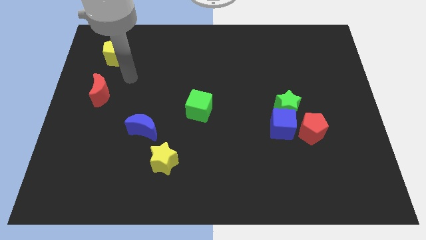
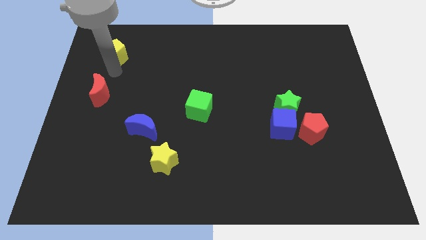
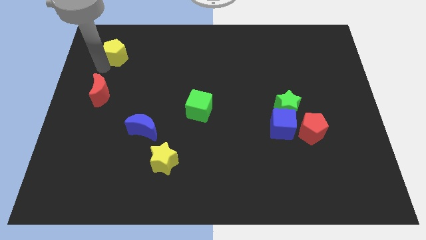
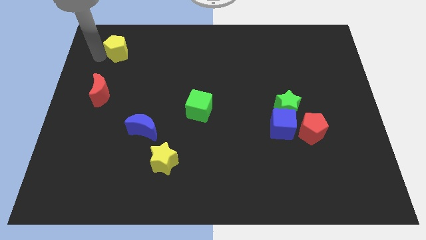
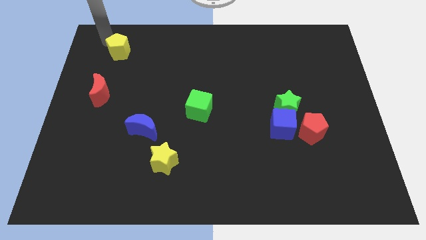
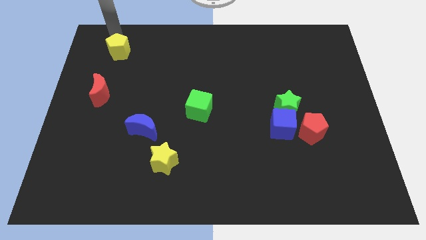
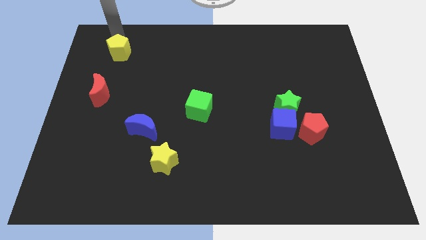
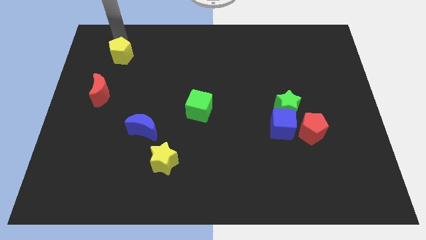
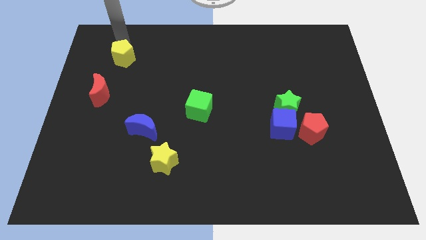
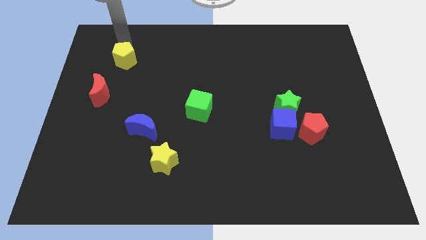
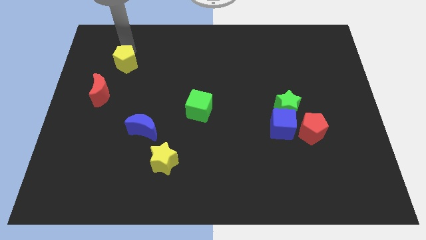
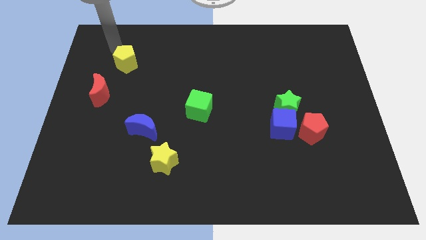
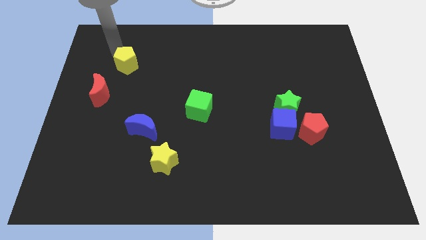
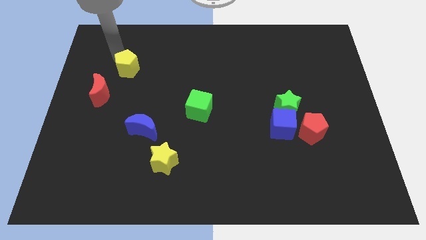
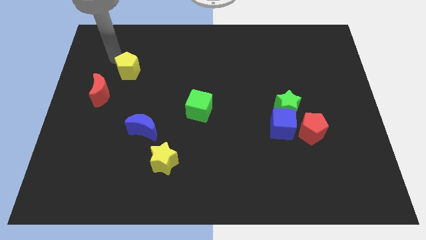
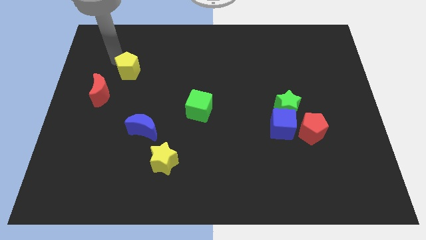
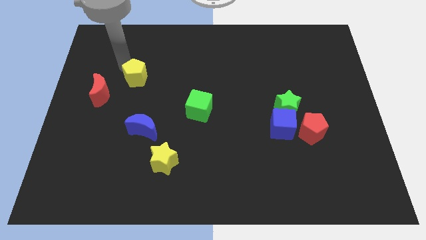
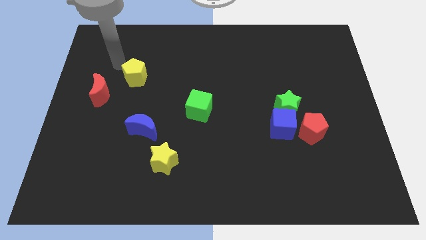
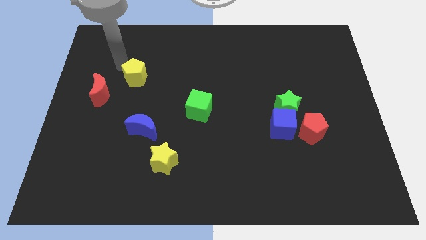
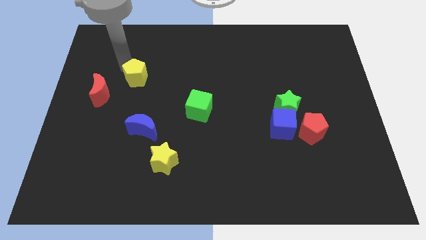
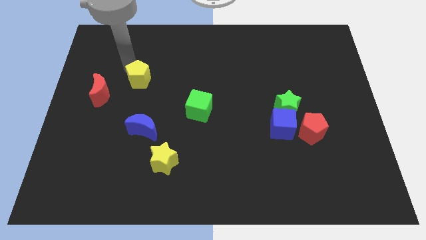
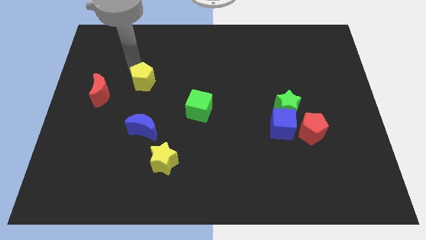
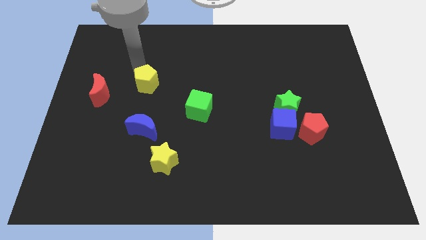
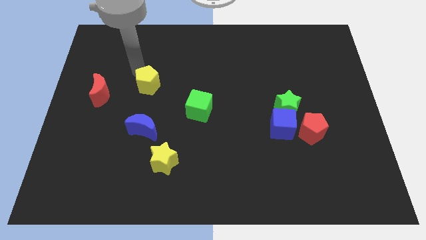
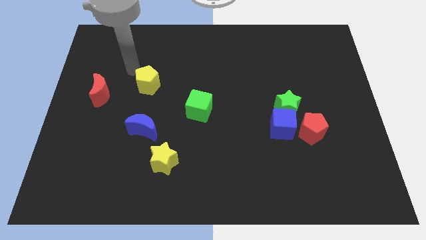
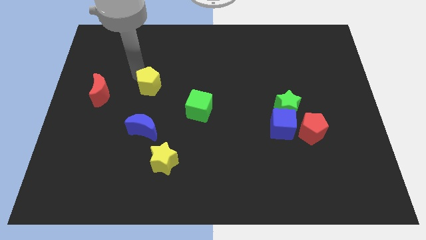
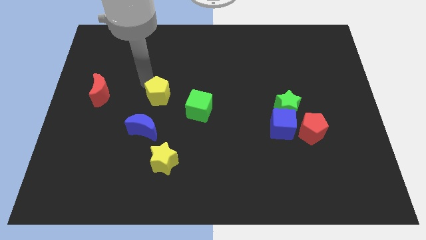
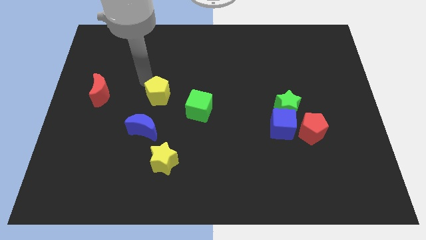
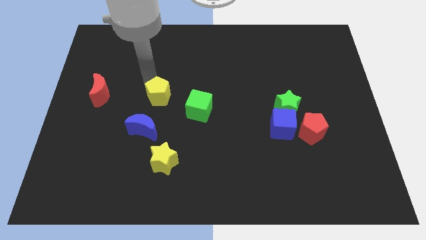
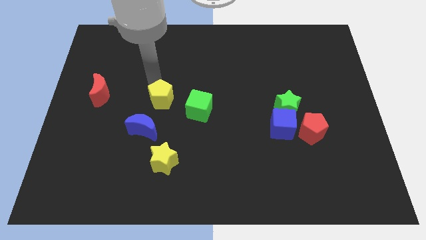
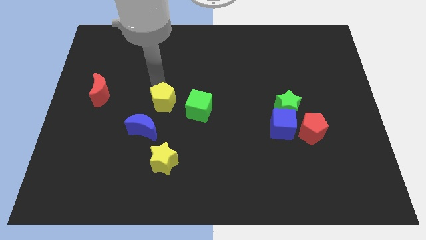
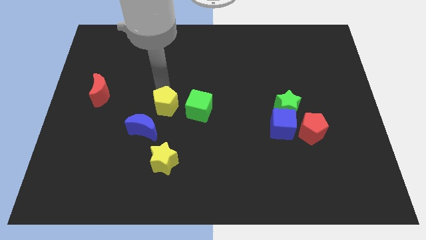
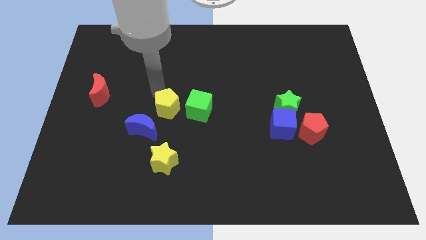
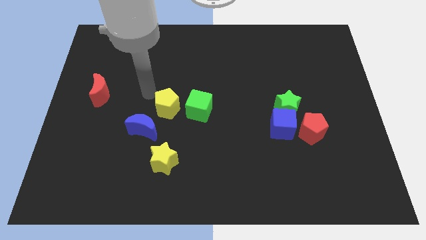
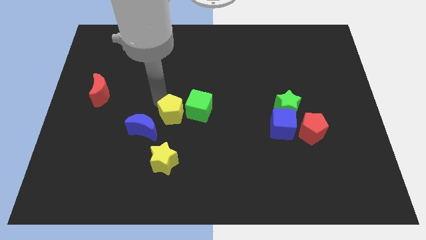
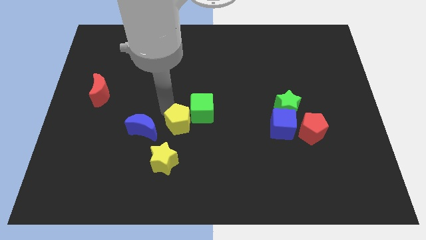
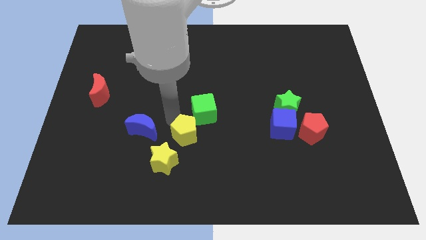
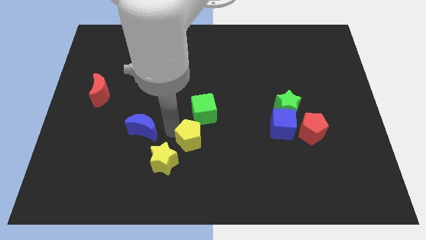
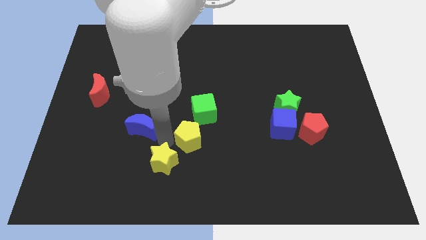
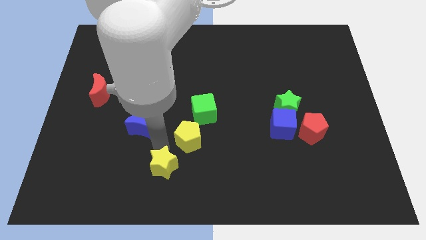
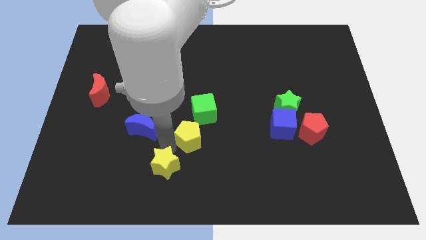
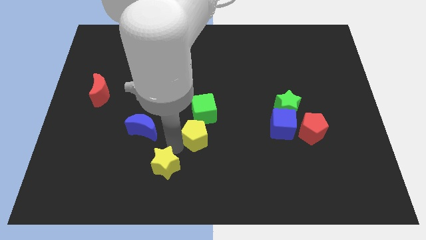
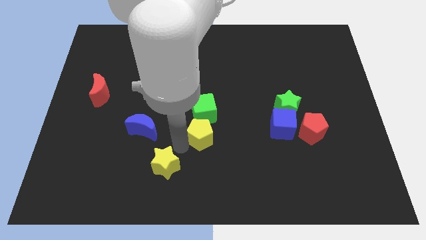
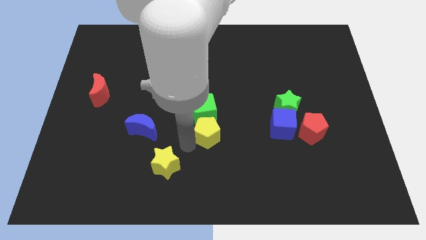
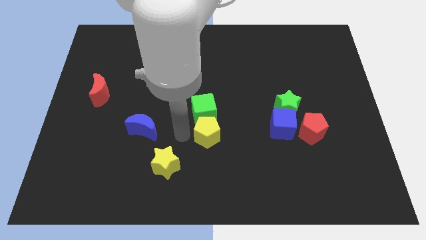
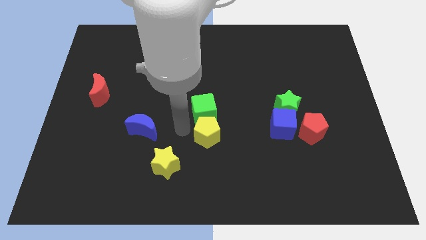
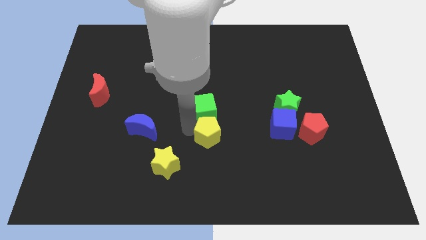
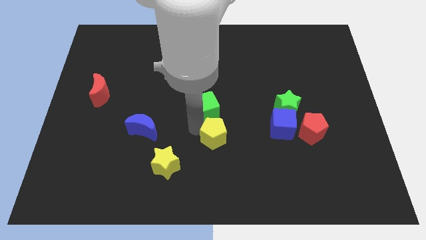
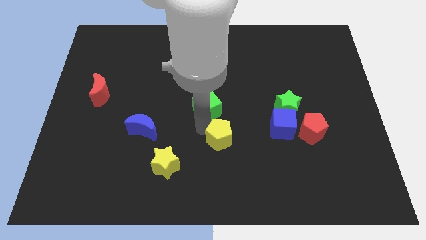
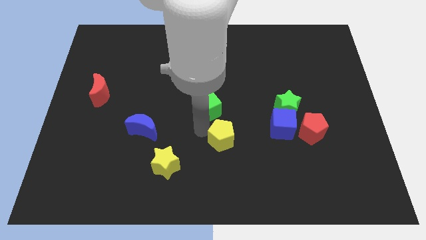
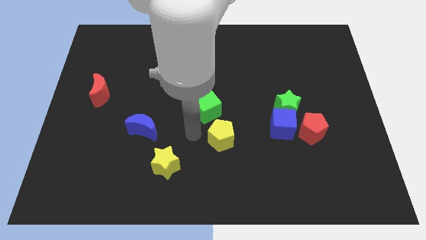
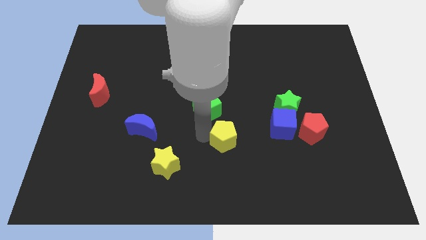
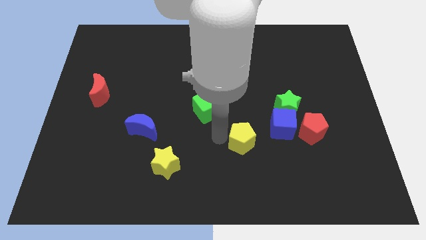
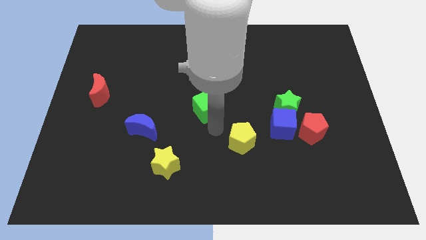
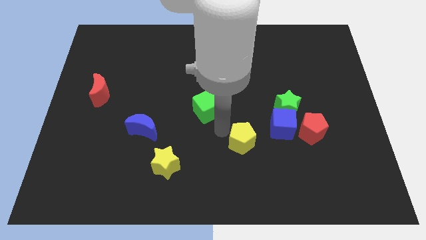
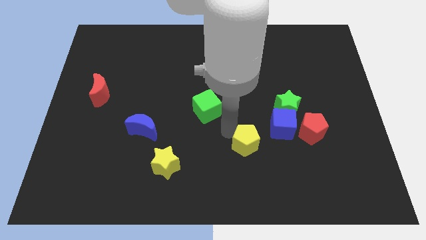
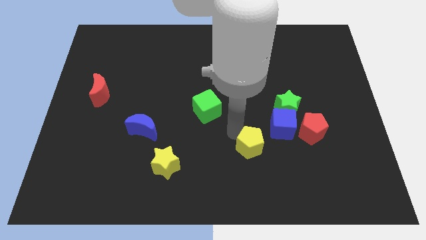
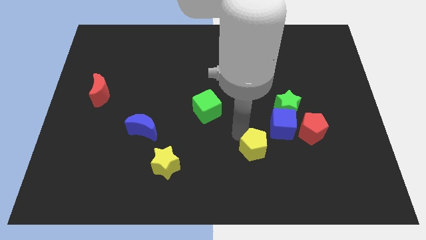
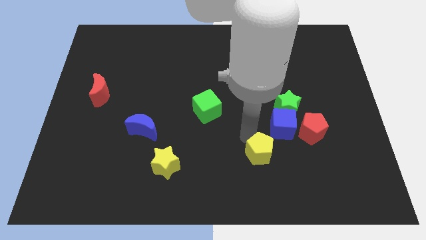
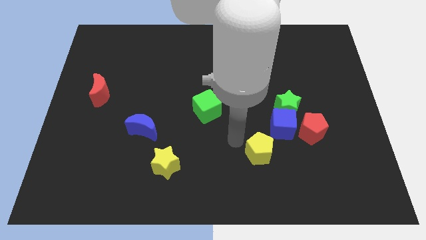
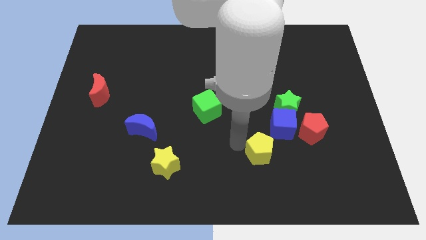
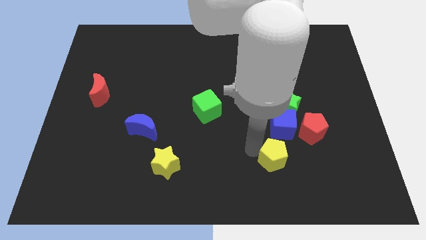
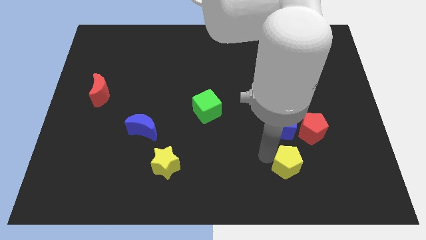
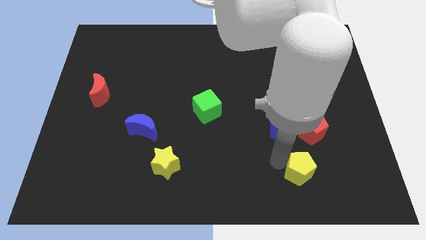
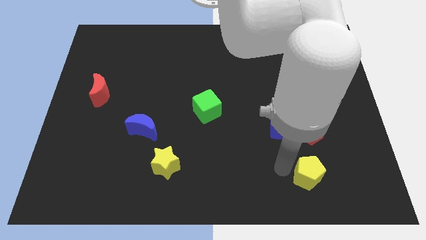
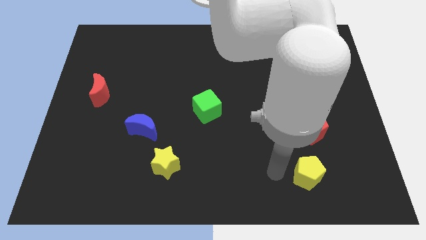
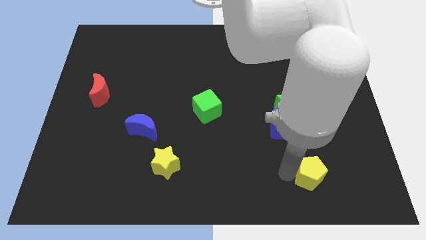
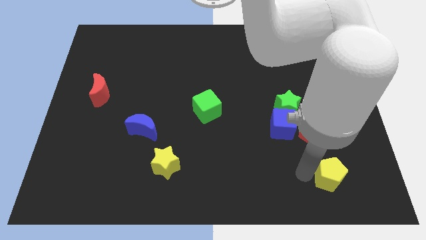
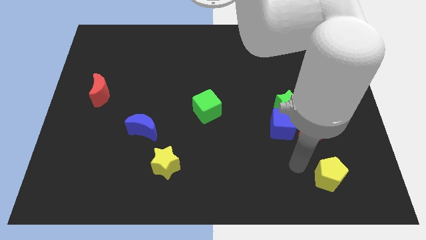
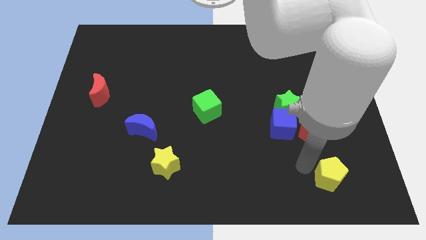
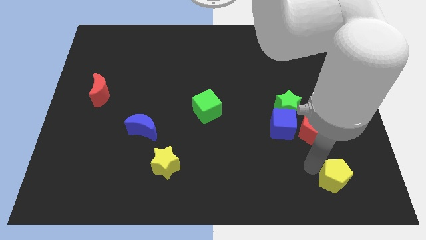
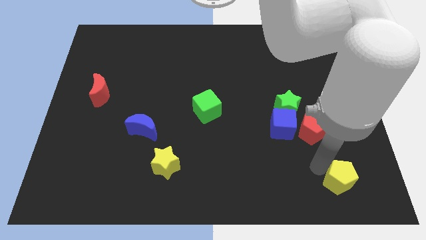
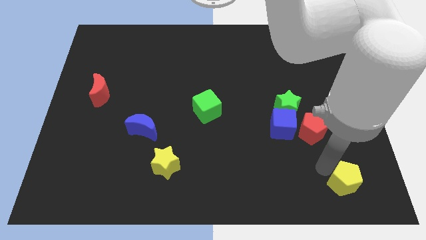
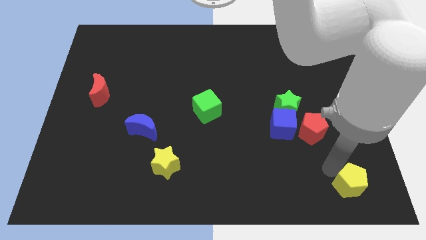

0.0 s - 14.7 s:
put the yellow pentagon to the bottom right of the board

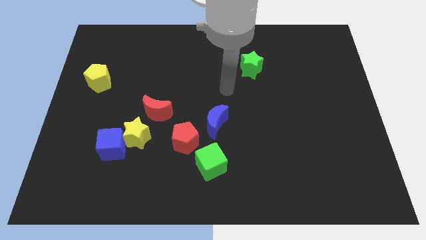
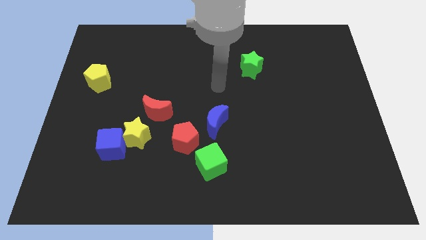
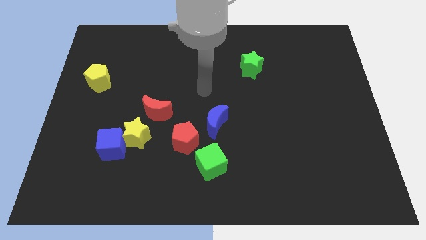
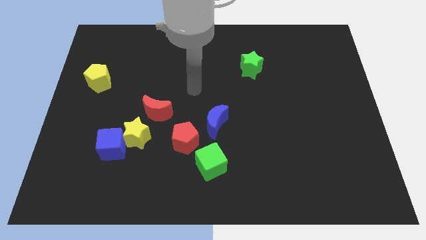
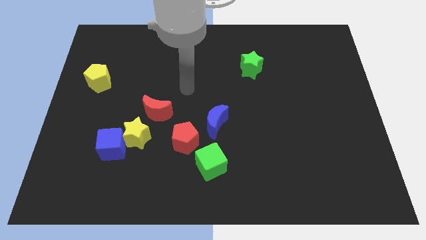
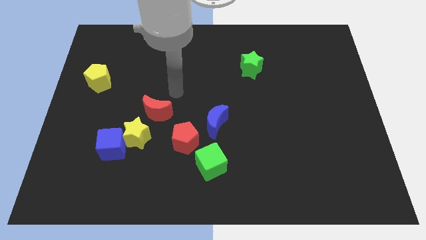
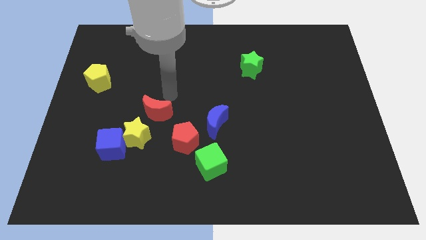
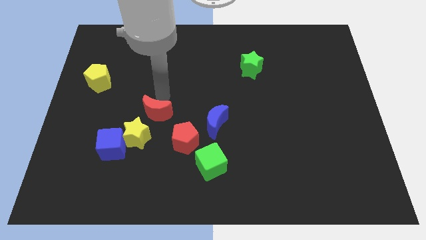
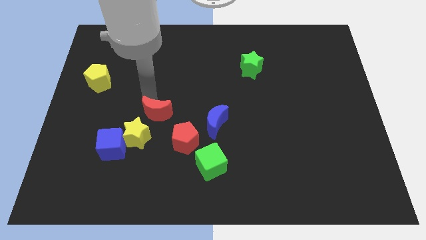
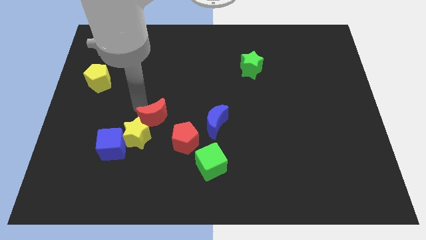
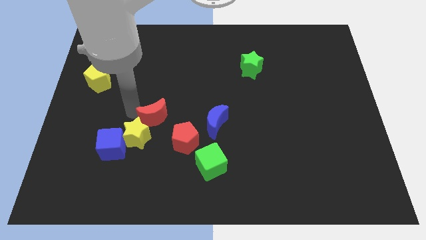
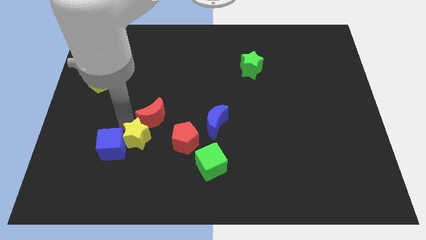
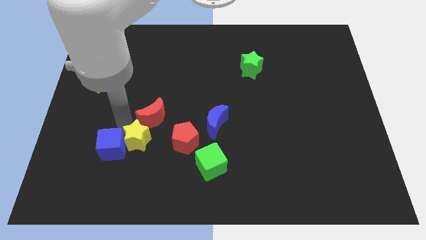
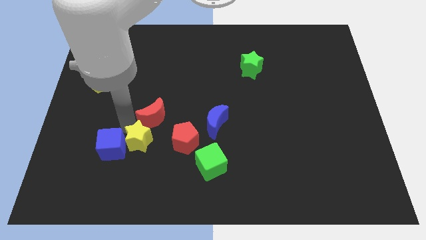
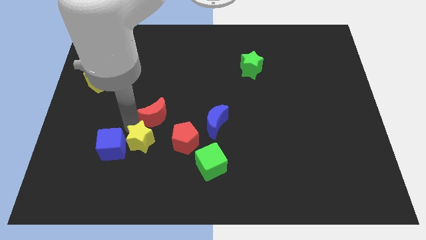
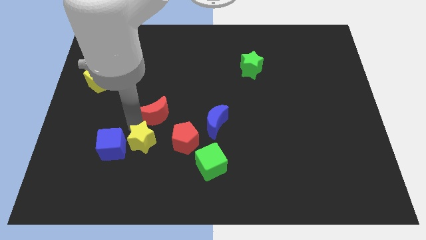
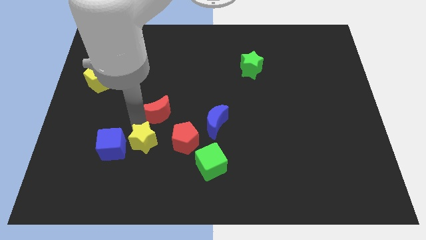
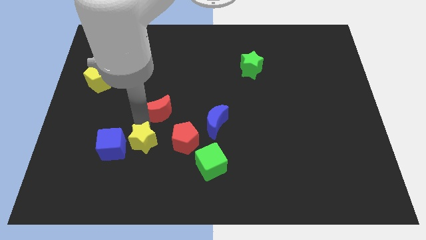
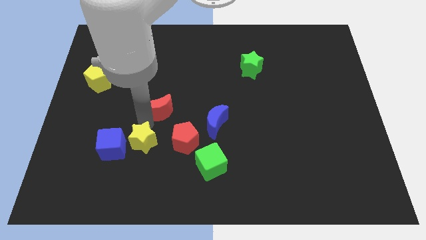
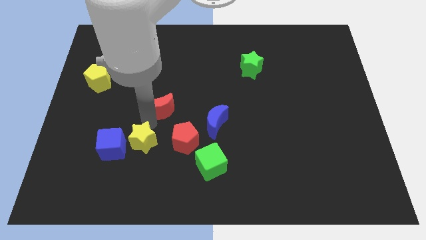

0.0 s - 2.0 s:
move the red moon to the middle of the board
